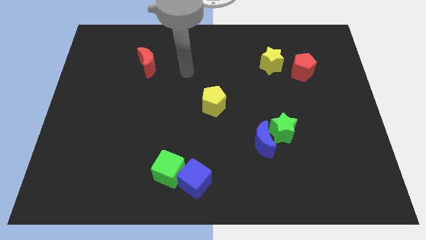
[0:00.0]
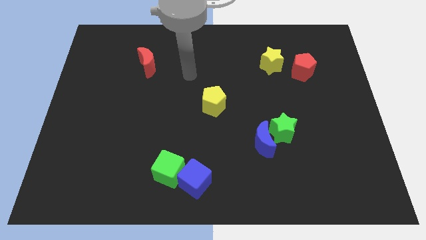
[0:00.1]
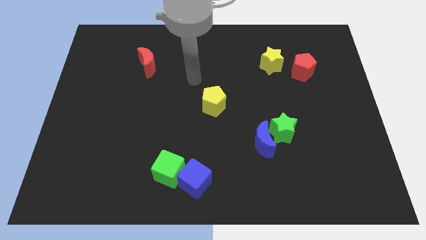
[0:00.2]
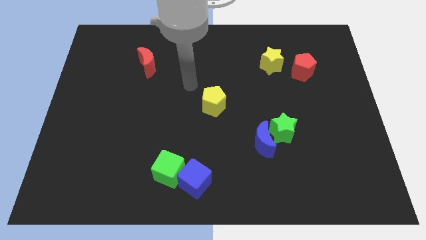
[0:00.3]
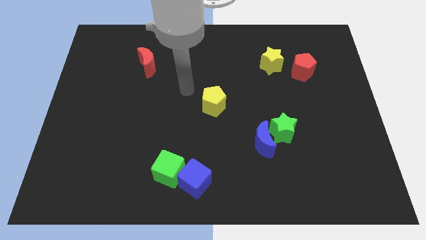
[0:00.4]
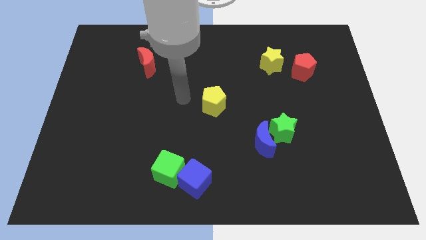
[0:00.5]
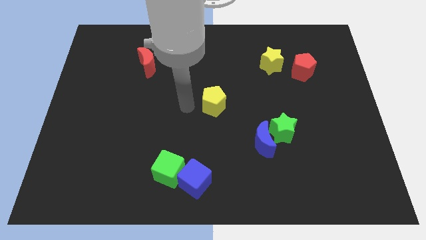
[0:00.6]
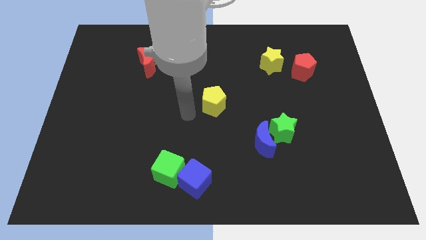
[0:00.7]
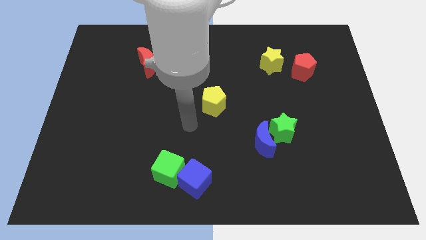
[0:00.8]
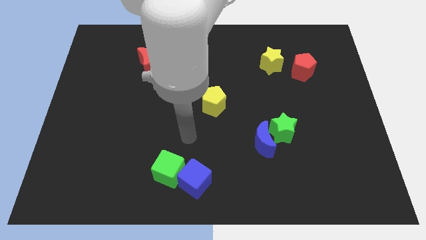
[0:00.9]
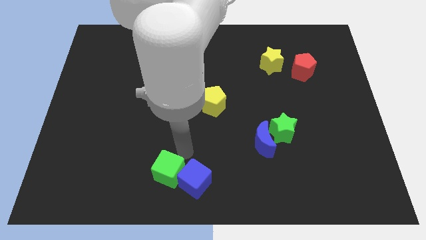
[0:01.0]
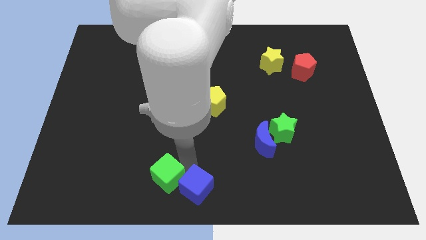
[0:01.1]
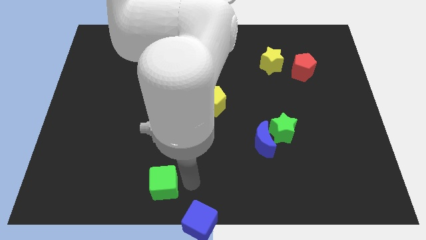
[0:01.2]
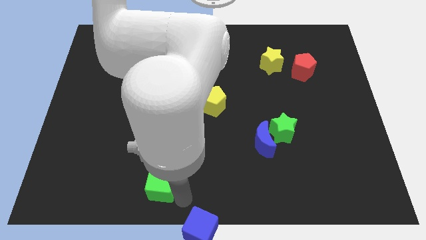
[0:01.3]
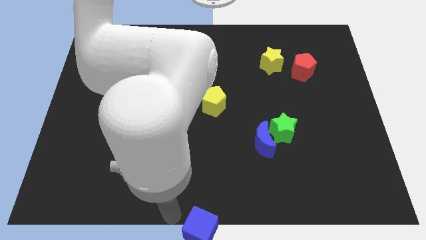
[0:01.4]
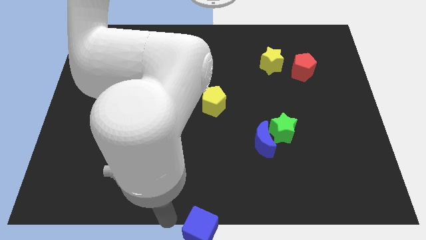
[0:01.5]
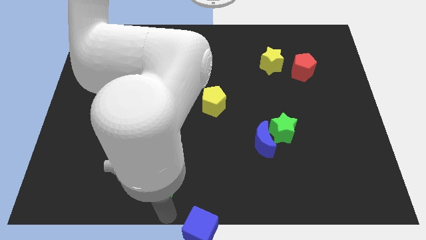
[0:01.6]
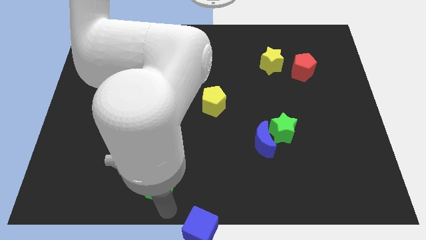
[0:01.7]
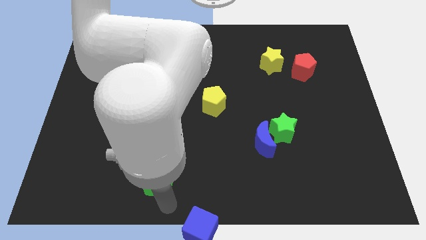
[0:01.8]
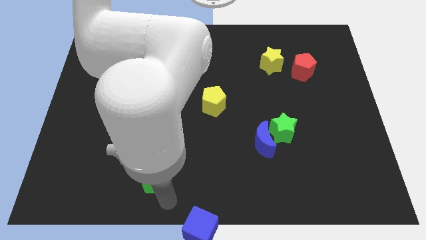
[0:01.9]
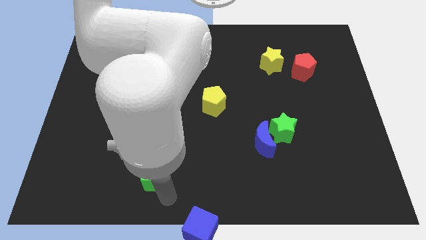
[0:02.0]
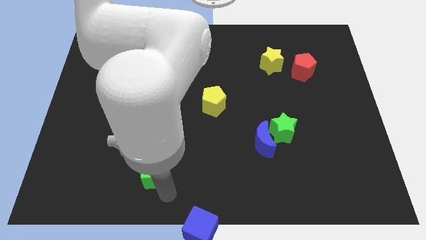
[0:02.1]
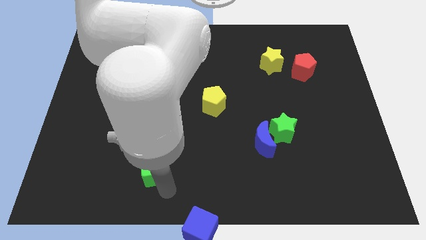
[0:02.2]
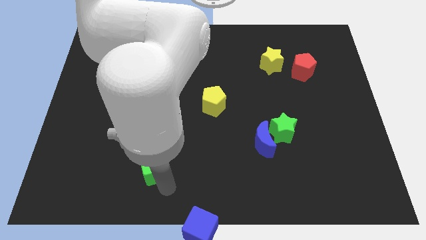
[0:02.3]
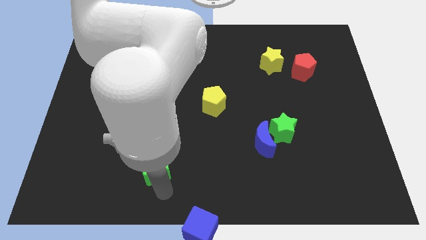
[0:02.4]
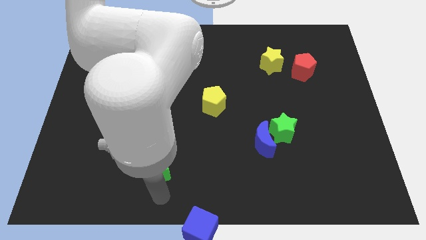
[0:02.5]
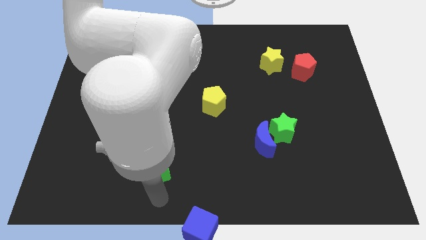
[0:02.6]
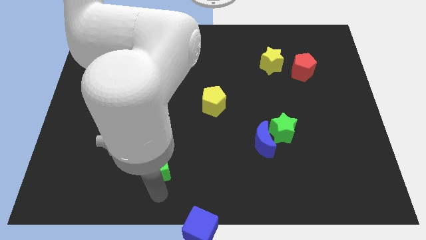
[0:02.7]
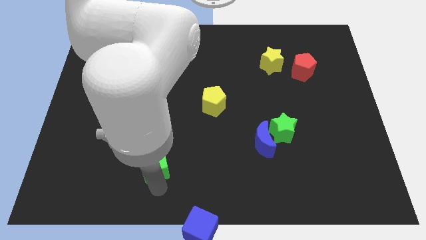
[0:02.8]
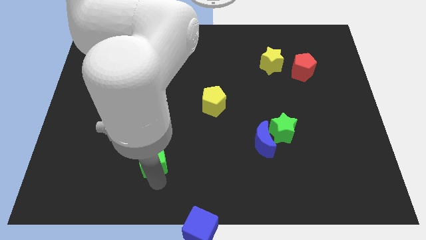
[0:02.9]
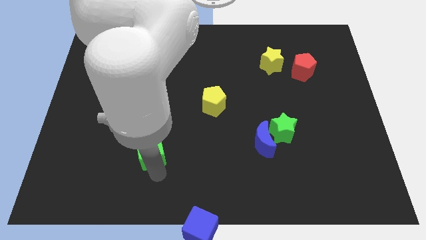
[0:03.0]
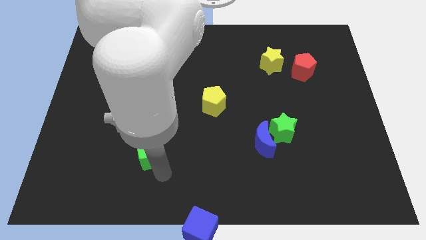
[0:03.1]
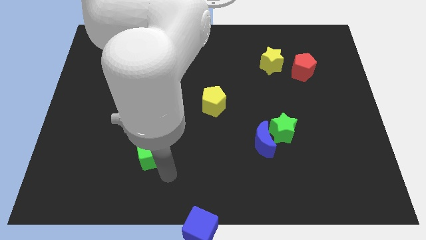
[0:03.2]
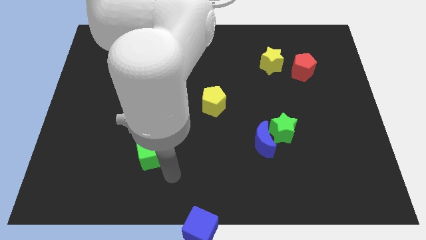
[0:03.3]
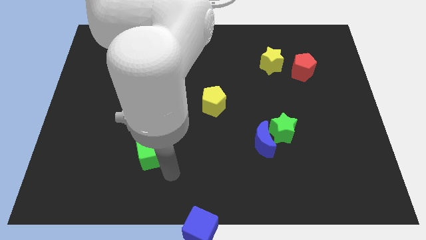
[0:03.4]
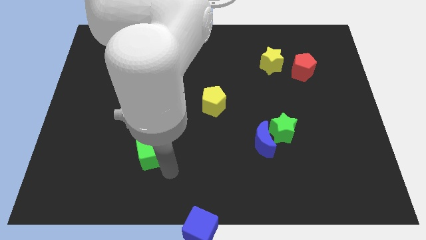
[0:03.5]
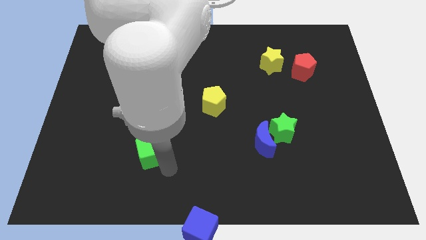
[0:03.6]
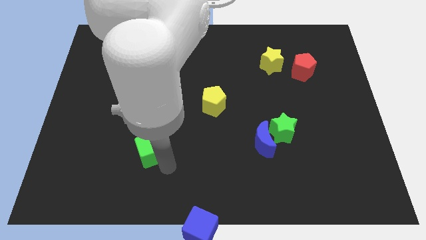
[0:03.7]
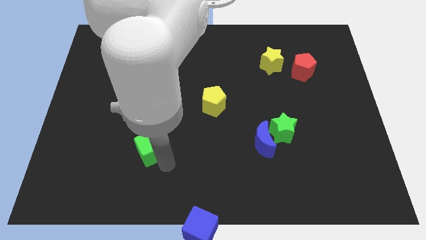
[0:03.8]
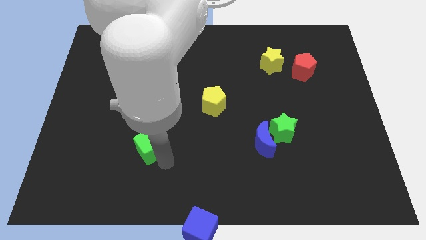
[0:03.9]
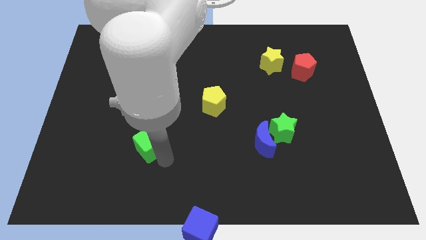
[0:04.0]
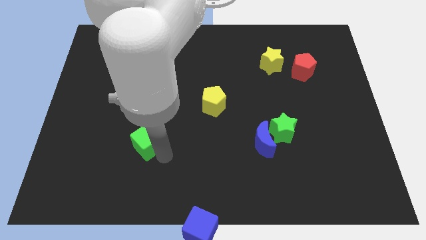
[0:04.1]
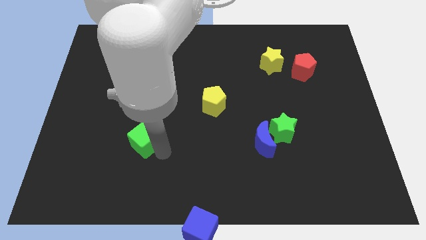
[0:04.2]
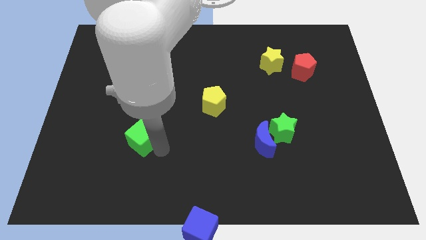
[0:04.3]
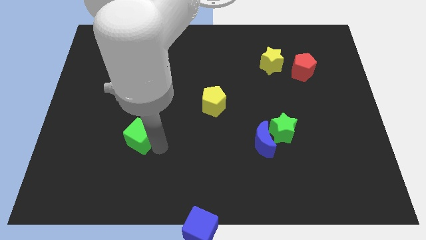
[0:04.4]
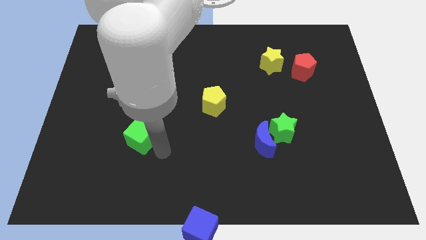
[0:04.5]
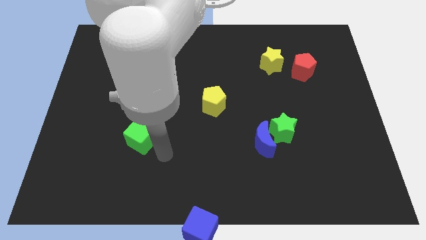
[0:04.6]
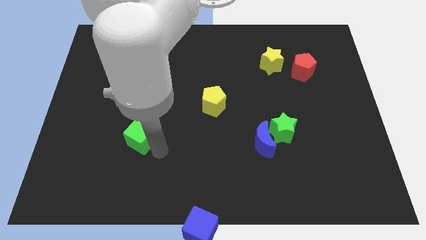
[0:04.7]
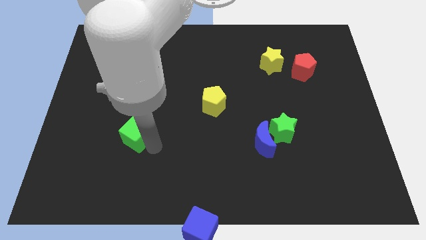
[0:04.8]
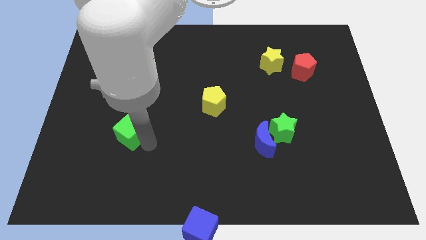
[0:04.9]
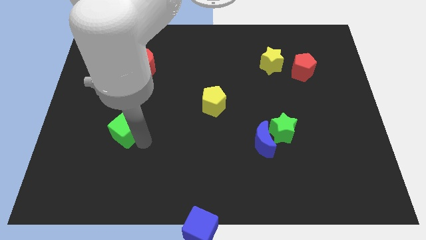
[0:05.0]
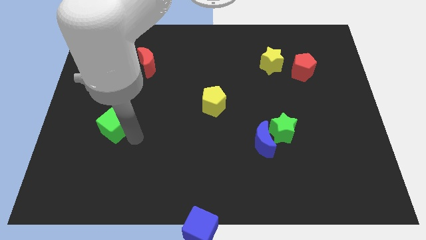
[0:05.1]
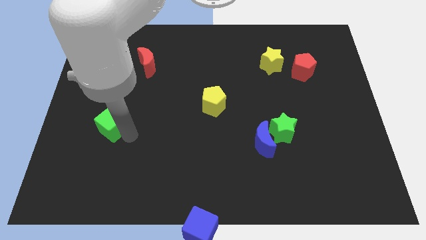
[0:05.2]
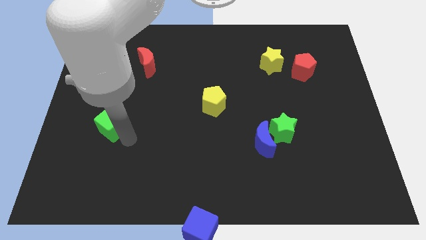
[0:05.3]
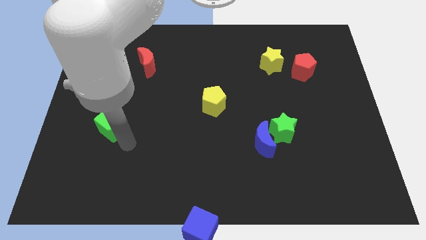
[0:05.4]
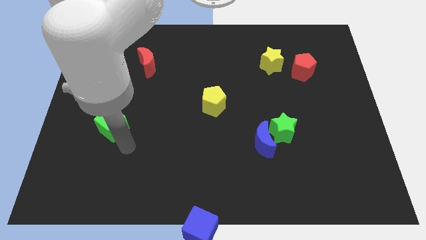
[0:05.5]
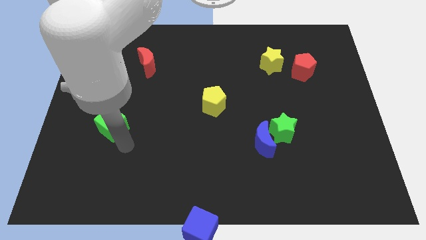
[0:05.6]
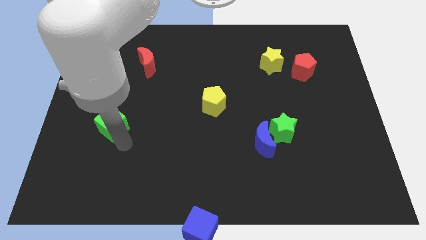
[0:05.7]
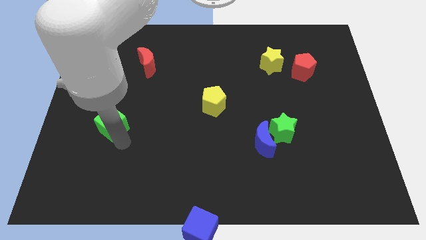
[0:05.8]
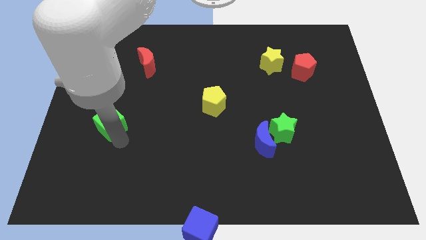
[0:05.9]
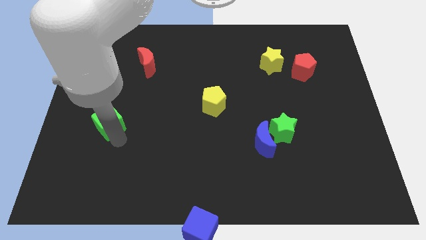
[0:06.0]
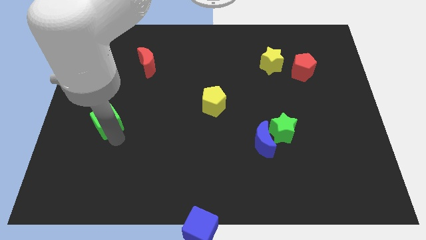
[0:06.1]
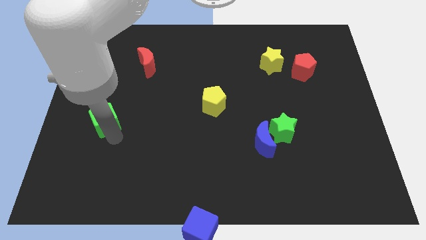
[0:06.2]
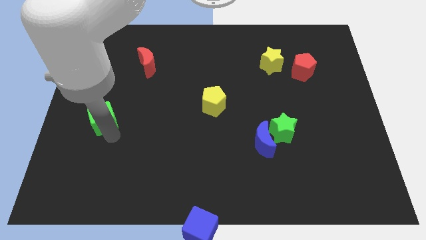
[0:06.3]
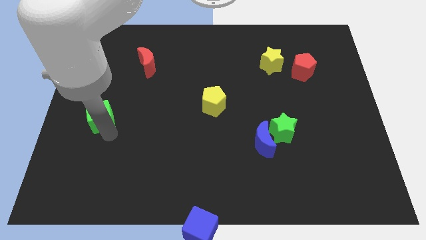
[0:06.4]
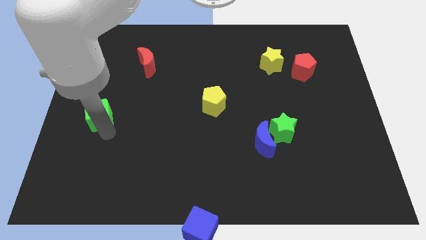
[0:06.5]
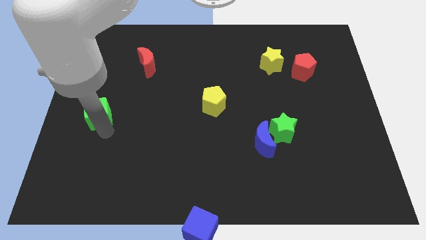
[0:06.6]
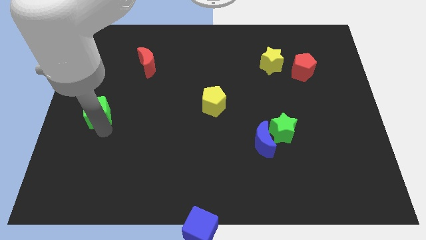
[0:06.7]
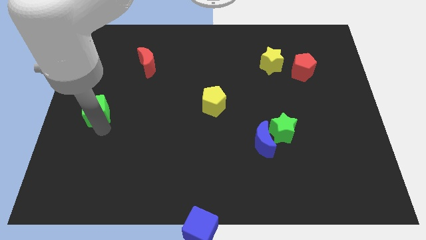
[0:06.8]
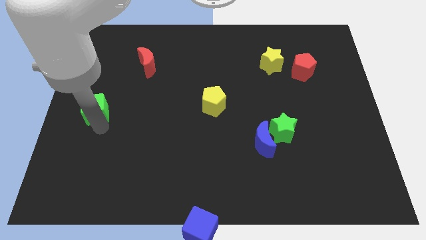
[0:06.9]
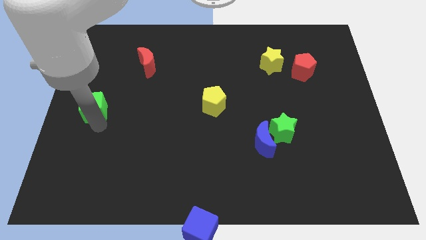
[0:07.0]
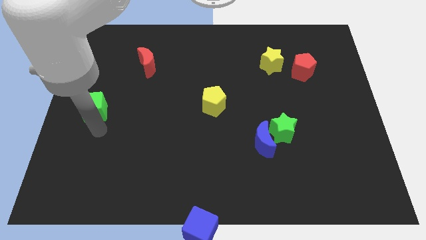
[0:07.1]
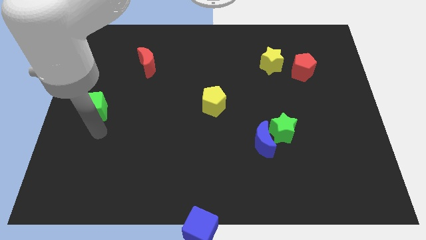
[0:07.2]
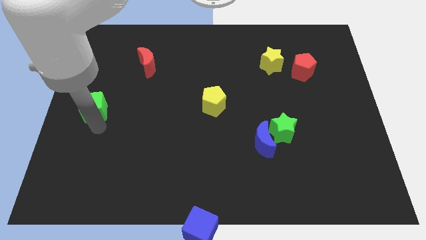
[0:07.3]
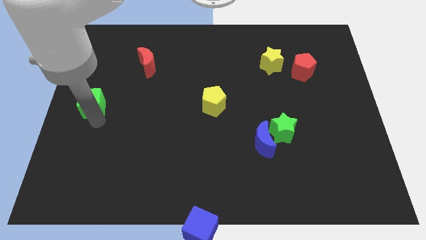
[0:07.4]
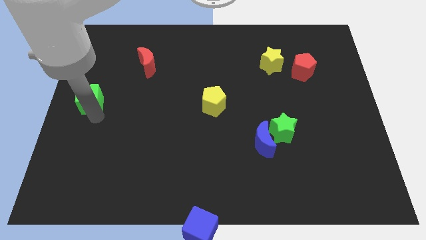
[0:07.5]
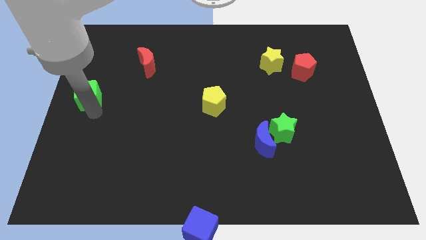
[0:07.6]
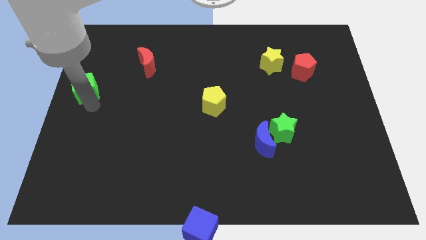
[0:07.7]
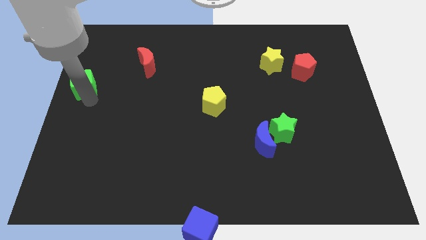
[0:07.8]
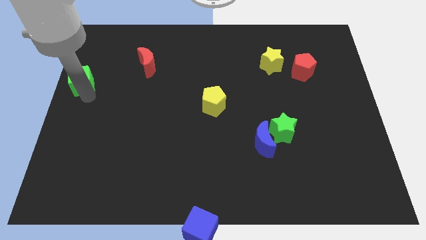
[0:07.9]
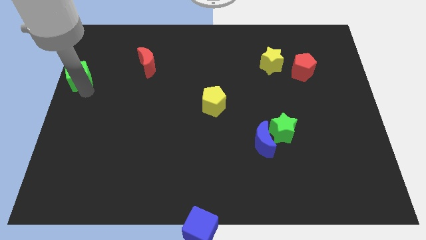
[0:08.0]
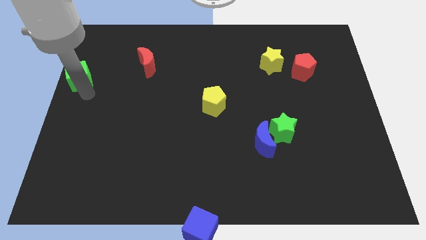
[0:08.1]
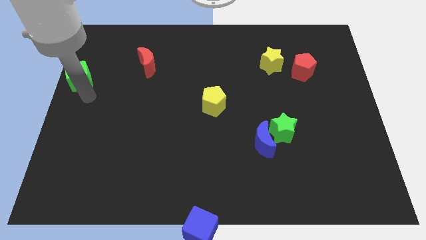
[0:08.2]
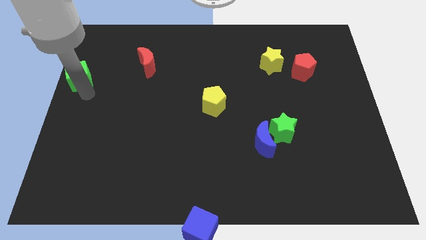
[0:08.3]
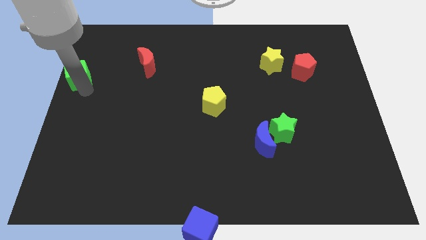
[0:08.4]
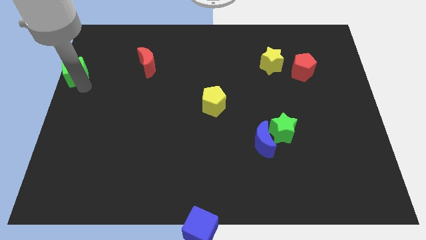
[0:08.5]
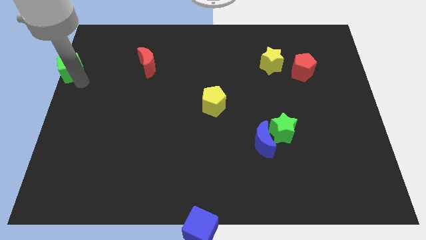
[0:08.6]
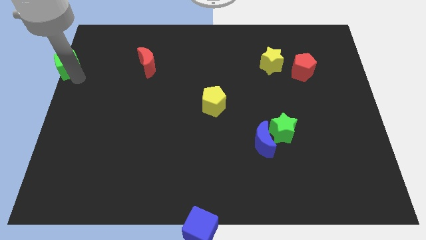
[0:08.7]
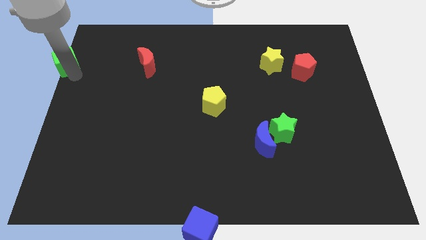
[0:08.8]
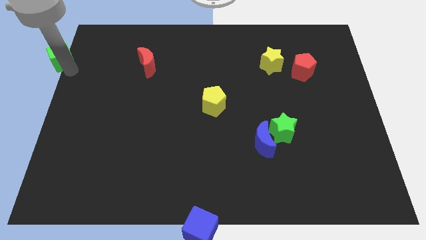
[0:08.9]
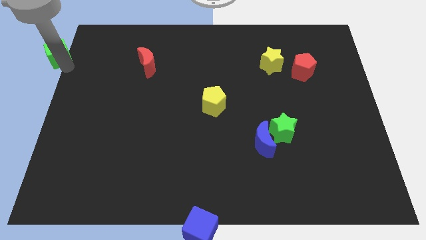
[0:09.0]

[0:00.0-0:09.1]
slide the green cube to the top left corner
